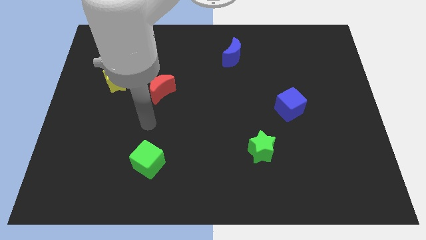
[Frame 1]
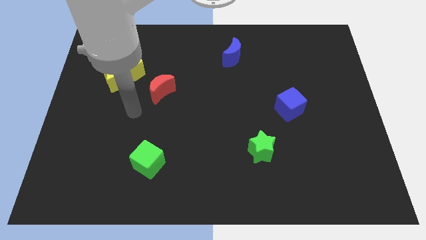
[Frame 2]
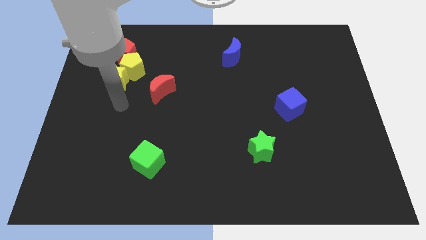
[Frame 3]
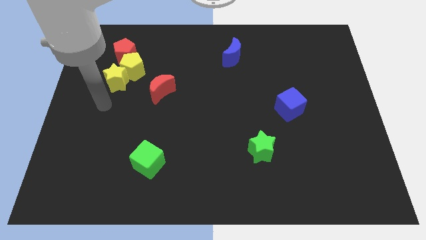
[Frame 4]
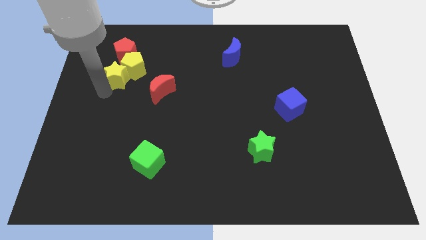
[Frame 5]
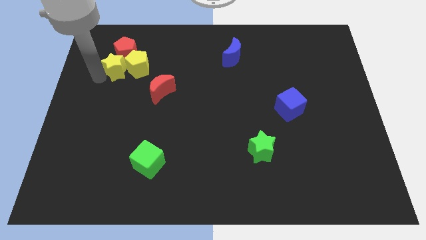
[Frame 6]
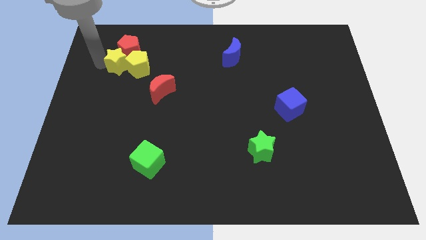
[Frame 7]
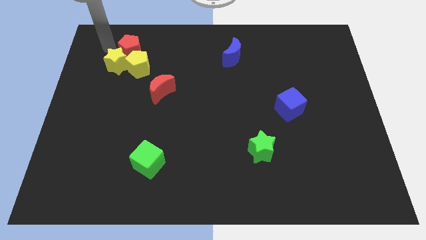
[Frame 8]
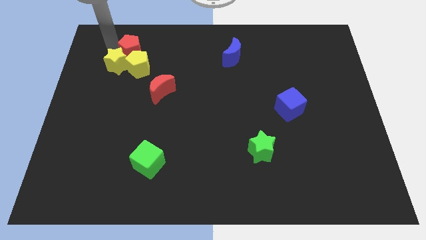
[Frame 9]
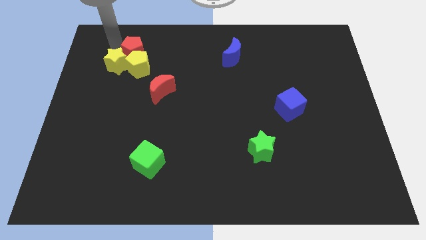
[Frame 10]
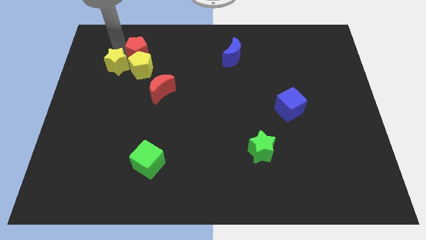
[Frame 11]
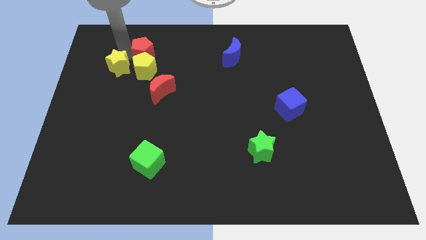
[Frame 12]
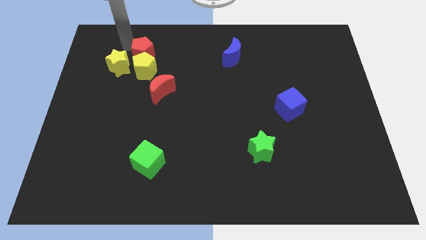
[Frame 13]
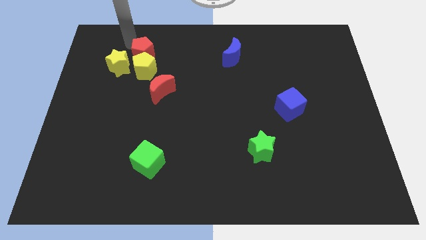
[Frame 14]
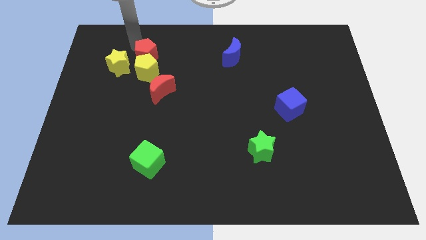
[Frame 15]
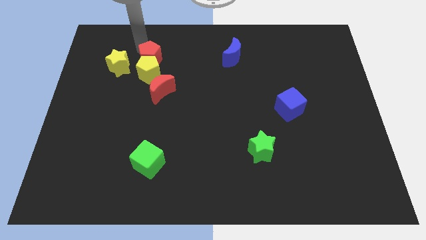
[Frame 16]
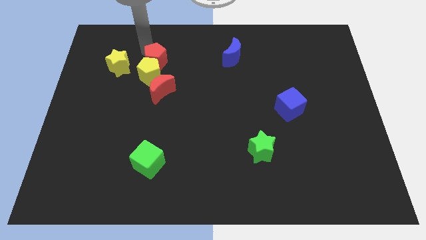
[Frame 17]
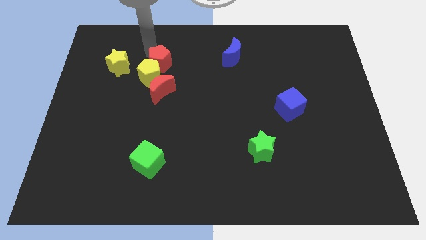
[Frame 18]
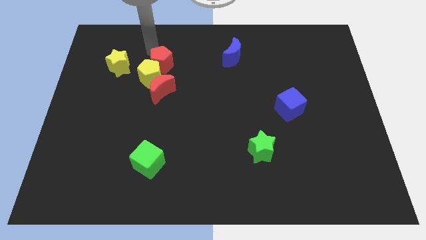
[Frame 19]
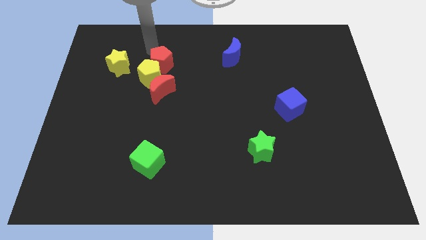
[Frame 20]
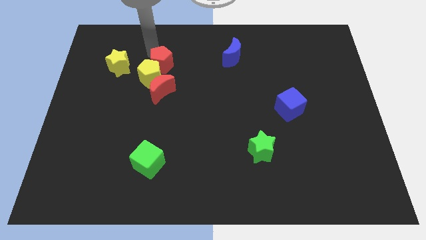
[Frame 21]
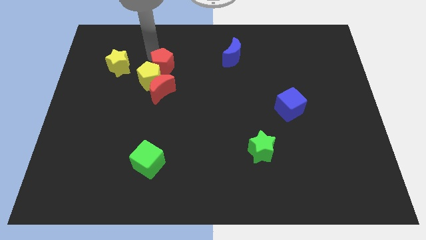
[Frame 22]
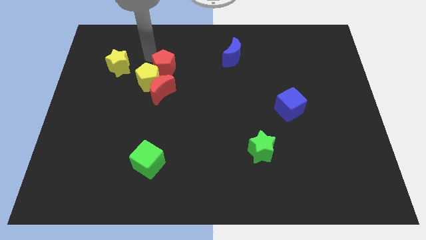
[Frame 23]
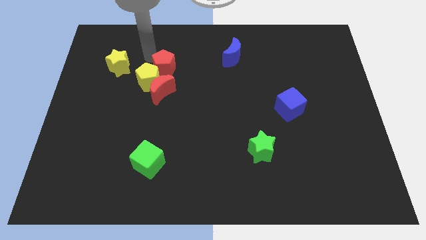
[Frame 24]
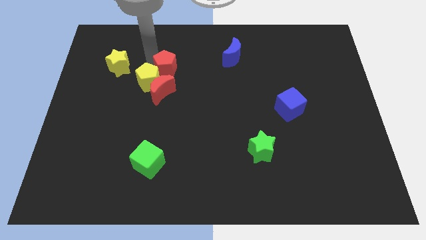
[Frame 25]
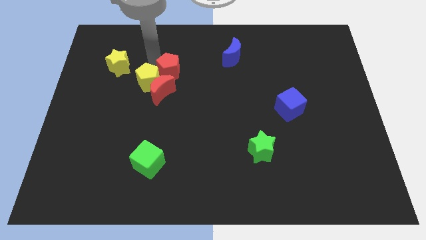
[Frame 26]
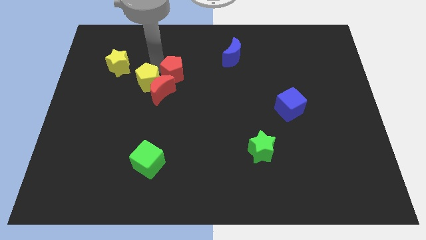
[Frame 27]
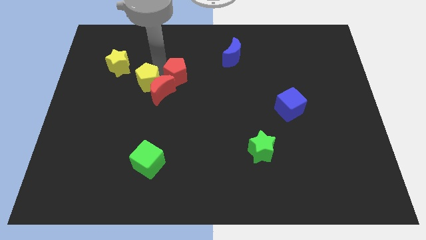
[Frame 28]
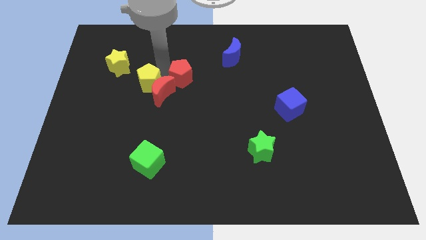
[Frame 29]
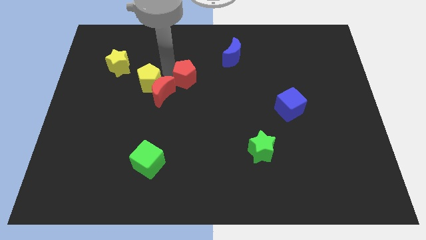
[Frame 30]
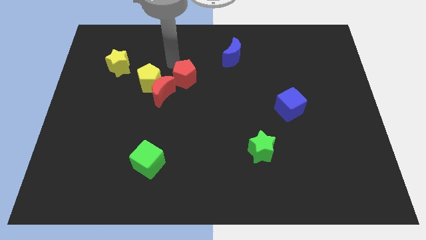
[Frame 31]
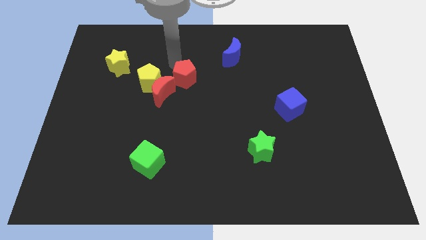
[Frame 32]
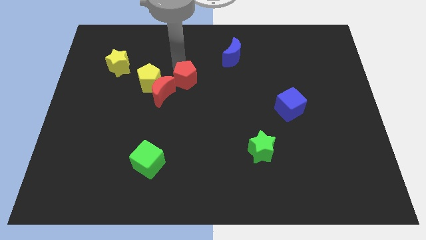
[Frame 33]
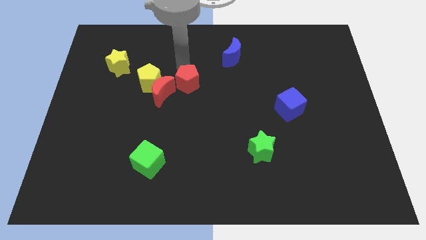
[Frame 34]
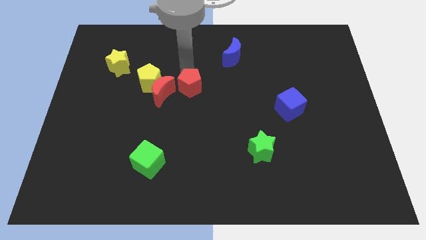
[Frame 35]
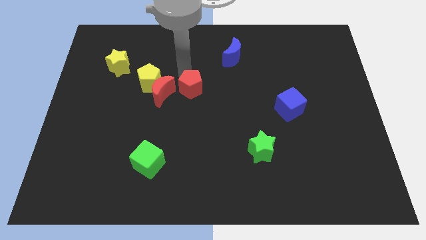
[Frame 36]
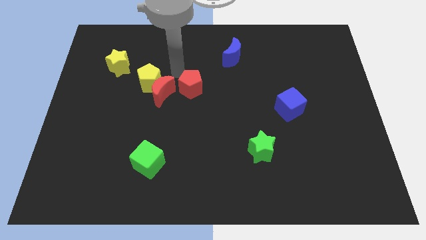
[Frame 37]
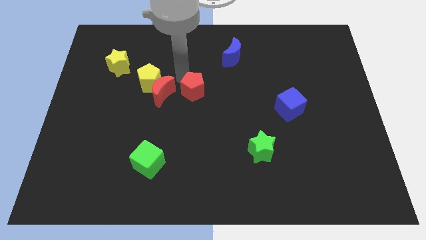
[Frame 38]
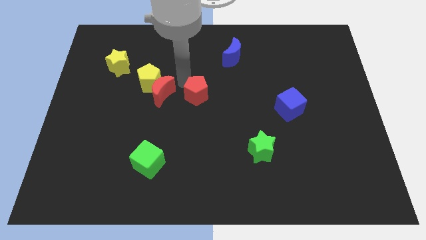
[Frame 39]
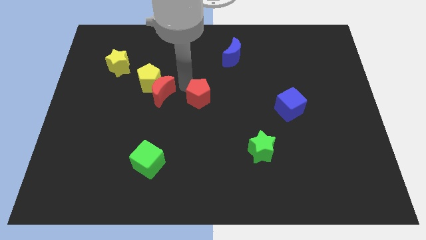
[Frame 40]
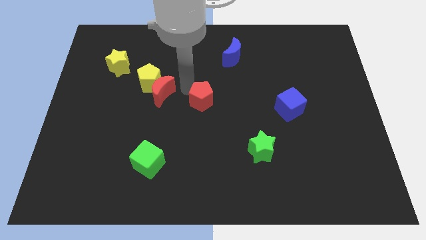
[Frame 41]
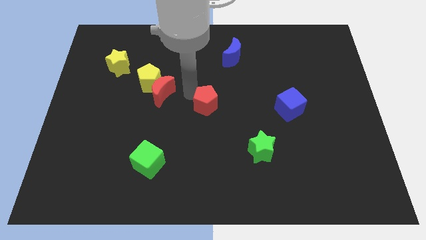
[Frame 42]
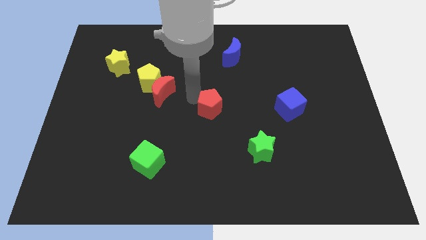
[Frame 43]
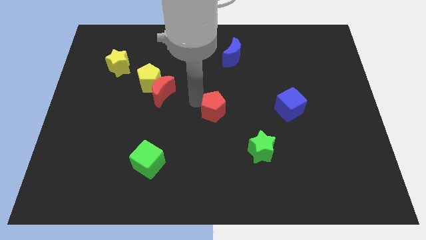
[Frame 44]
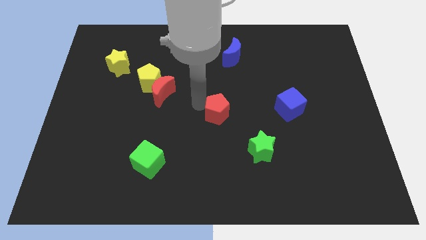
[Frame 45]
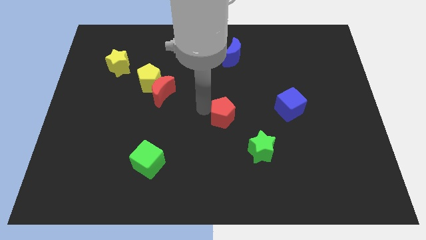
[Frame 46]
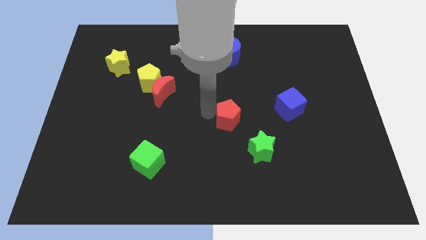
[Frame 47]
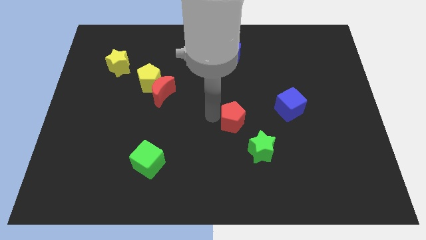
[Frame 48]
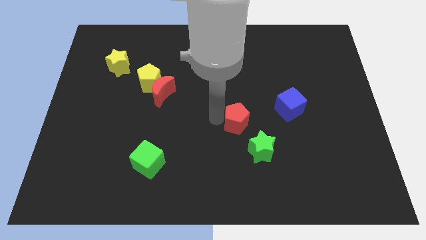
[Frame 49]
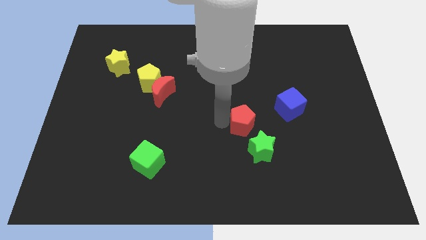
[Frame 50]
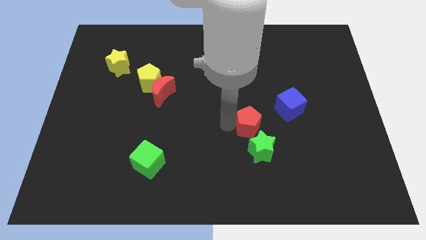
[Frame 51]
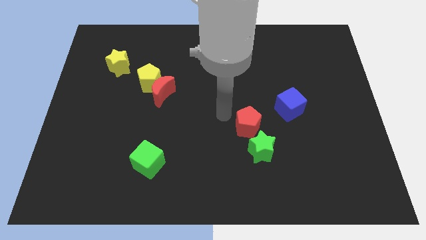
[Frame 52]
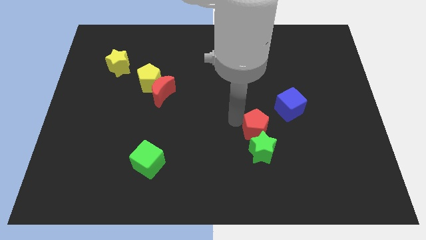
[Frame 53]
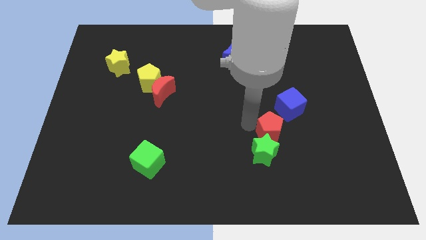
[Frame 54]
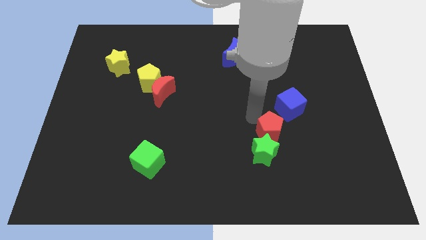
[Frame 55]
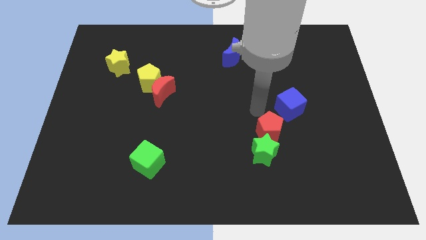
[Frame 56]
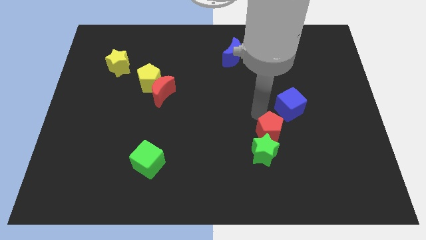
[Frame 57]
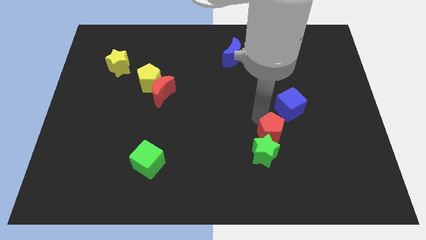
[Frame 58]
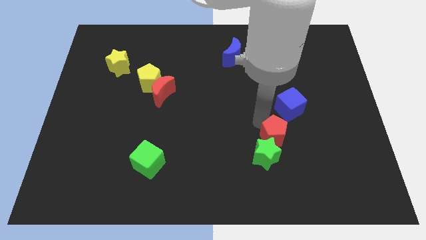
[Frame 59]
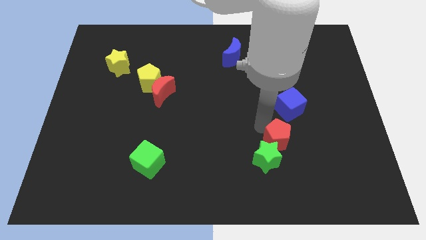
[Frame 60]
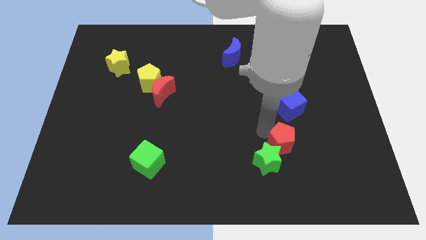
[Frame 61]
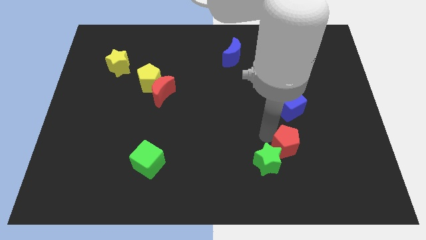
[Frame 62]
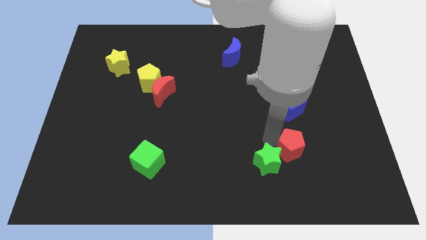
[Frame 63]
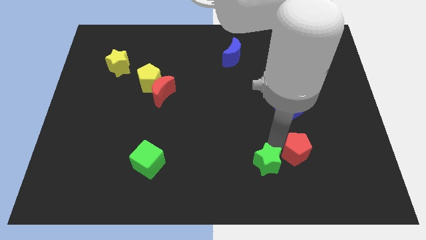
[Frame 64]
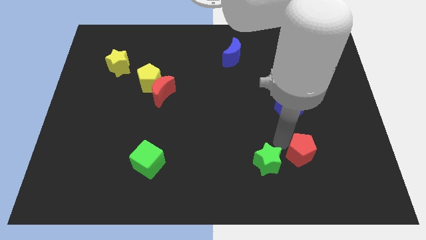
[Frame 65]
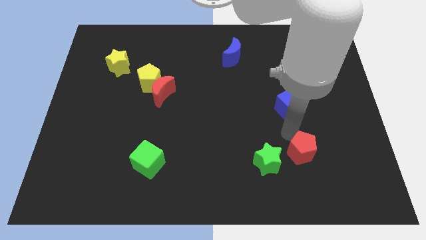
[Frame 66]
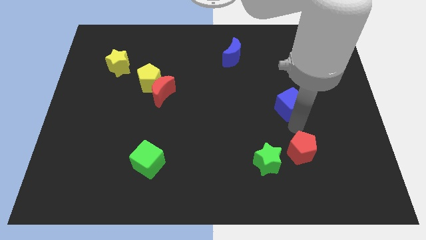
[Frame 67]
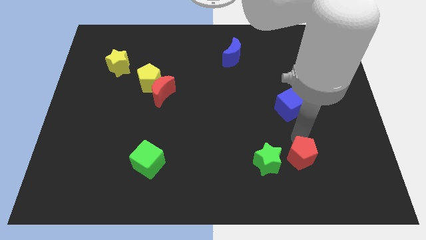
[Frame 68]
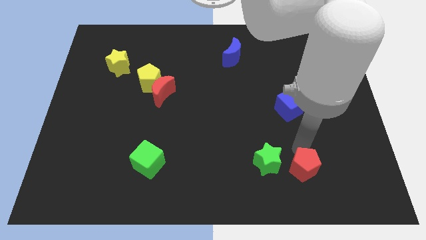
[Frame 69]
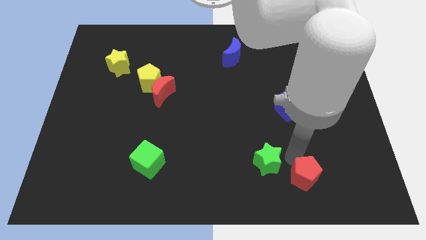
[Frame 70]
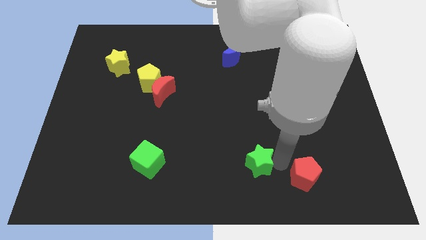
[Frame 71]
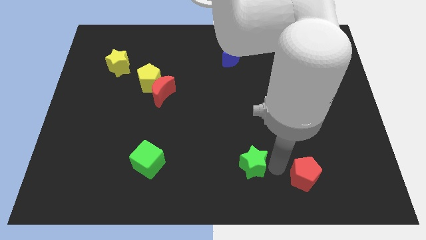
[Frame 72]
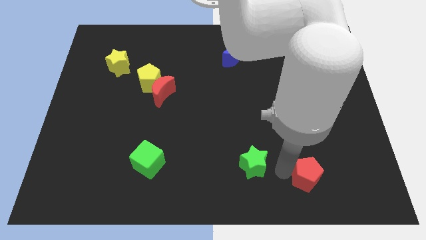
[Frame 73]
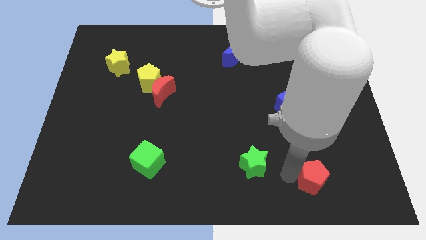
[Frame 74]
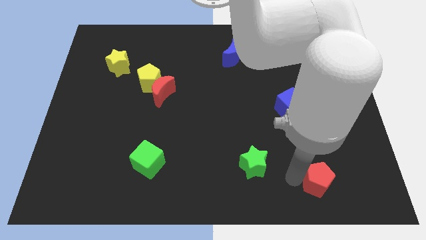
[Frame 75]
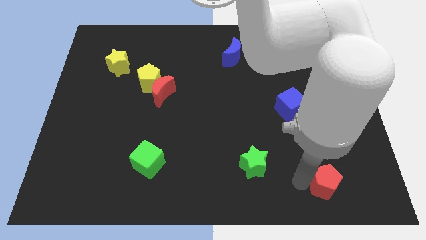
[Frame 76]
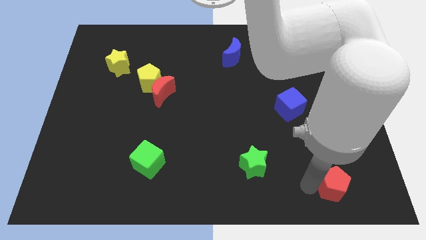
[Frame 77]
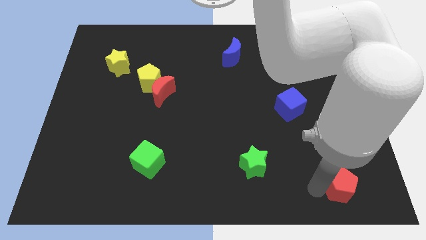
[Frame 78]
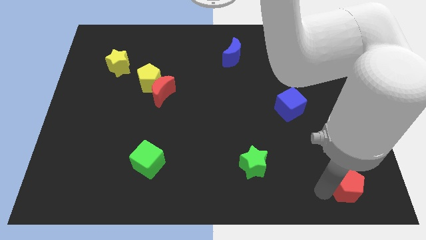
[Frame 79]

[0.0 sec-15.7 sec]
slide the red pentagon to the lower right corner
